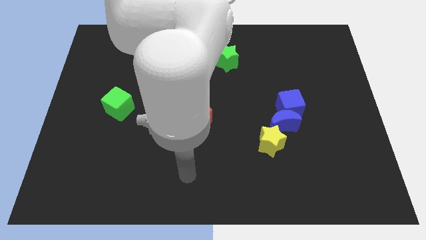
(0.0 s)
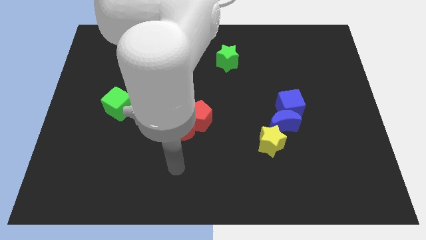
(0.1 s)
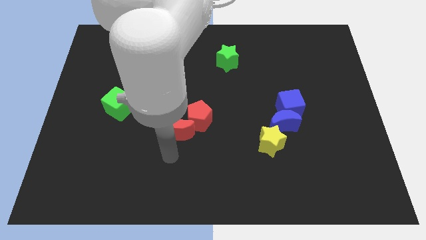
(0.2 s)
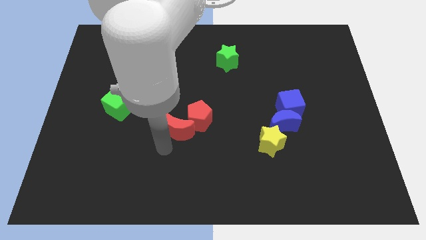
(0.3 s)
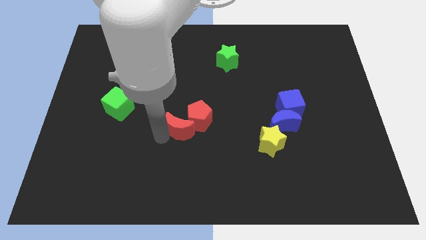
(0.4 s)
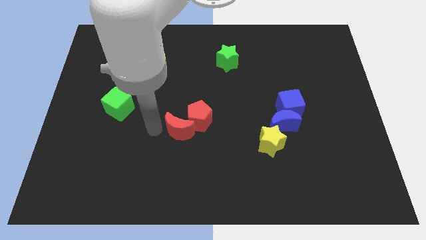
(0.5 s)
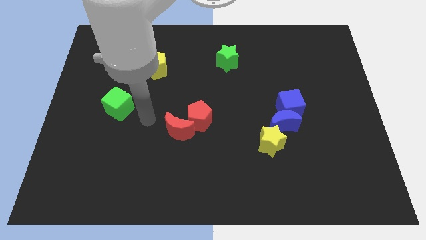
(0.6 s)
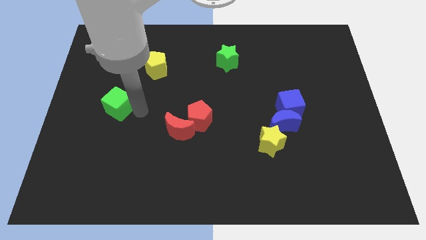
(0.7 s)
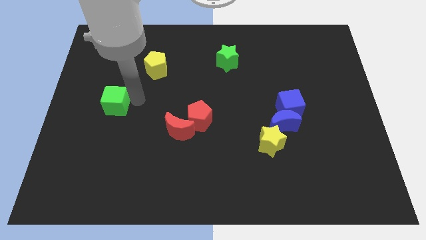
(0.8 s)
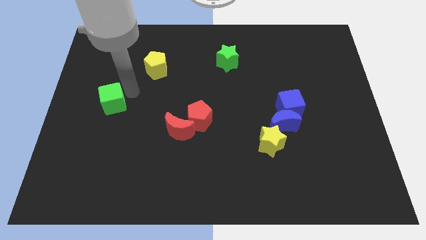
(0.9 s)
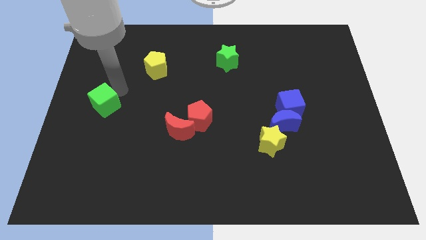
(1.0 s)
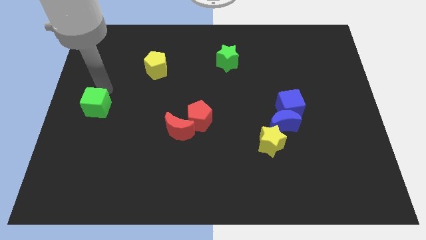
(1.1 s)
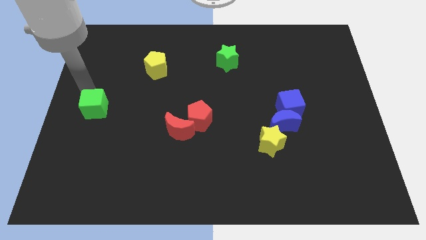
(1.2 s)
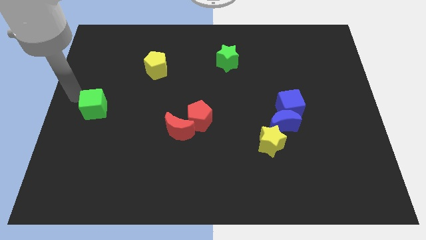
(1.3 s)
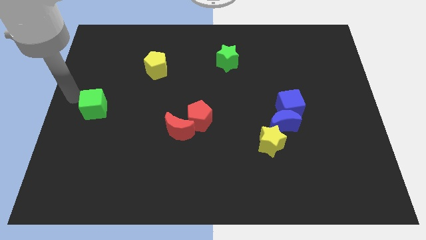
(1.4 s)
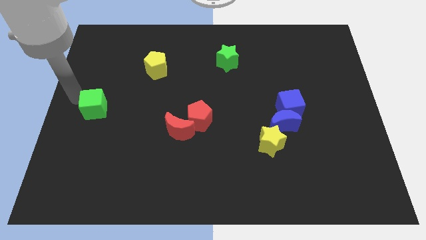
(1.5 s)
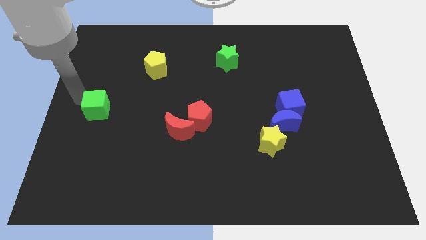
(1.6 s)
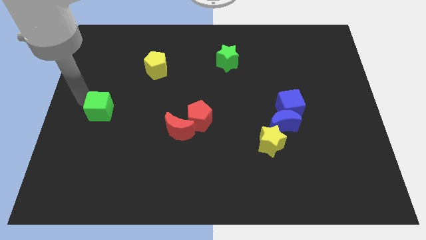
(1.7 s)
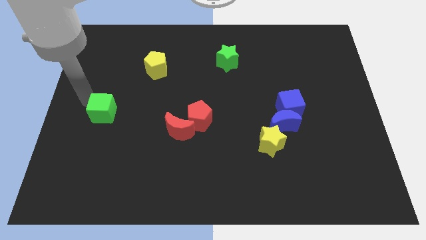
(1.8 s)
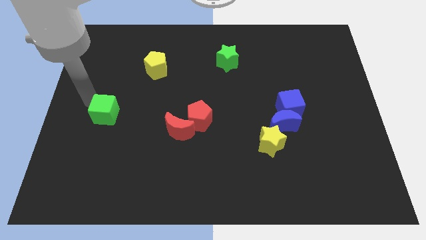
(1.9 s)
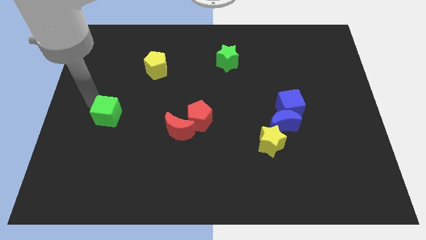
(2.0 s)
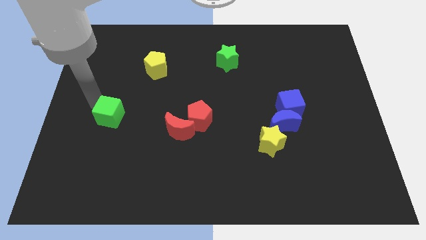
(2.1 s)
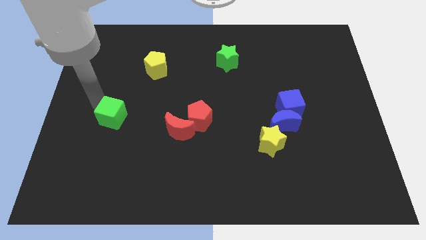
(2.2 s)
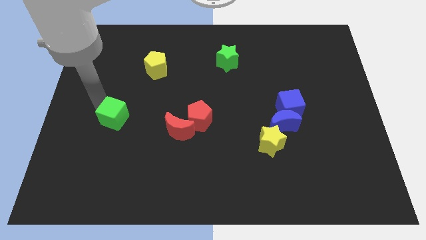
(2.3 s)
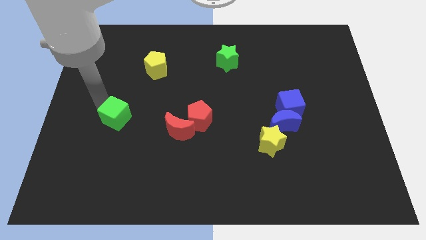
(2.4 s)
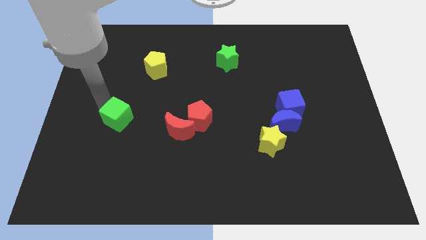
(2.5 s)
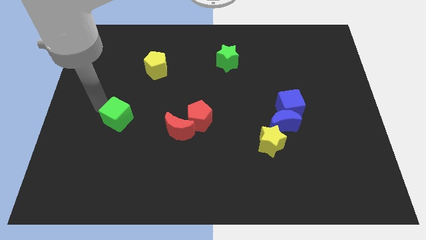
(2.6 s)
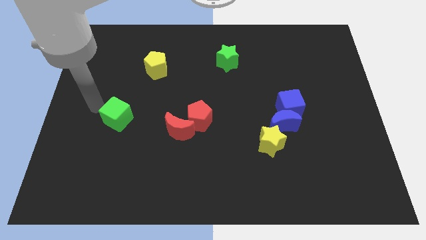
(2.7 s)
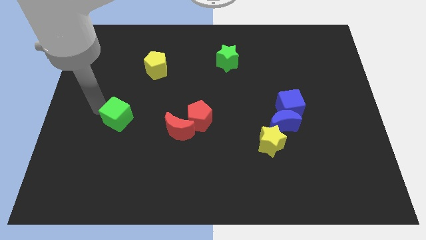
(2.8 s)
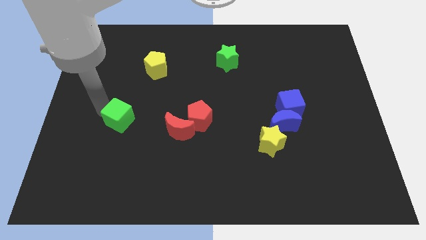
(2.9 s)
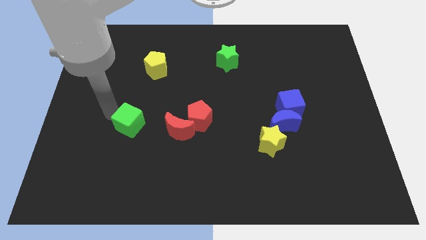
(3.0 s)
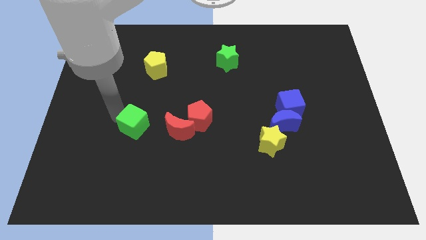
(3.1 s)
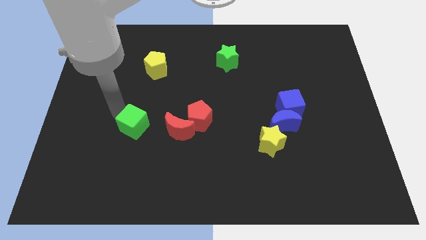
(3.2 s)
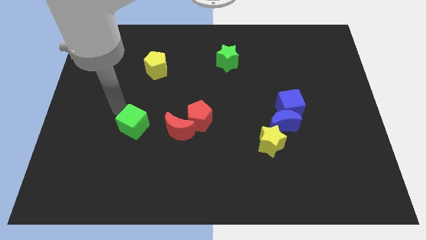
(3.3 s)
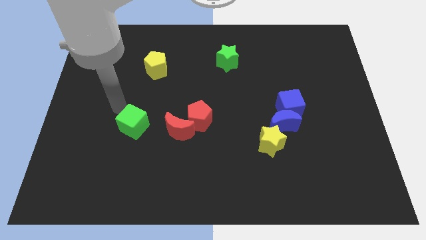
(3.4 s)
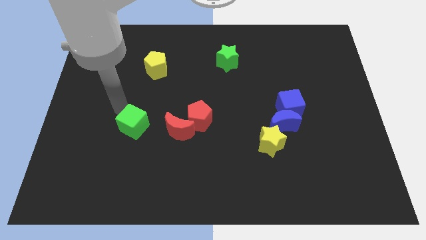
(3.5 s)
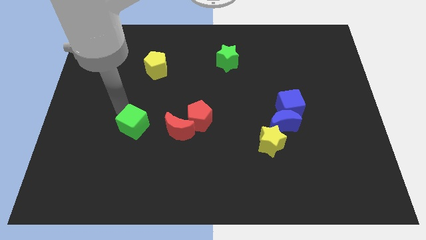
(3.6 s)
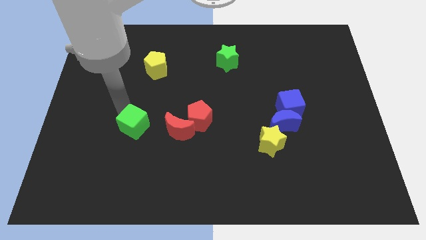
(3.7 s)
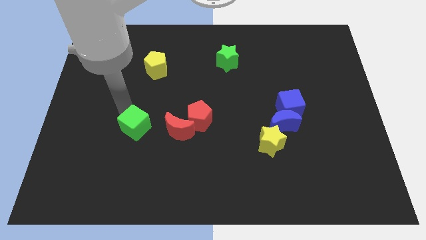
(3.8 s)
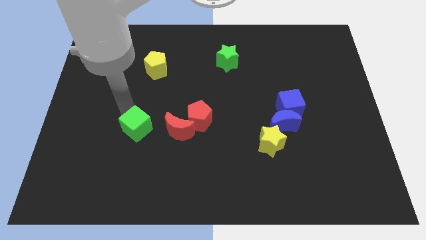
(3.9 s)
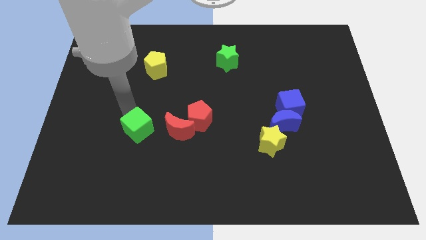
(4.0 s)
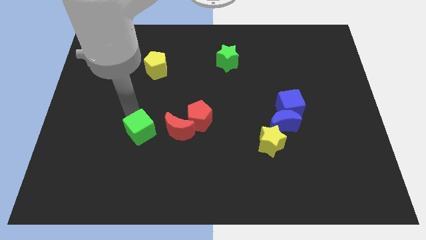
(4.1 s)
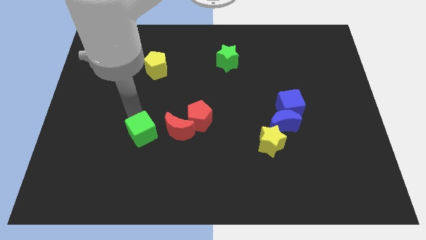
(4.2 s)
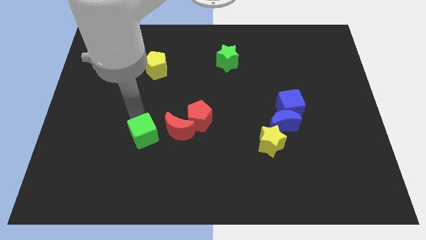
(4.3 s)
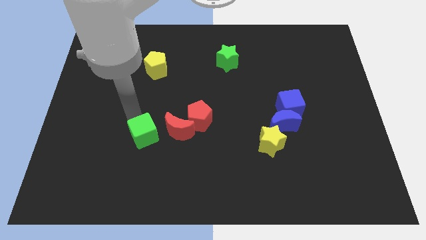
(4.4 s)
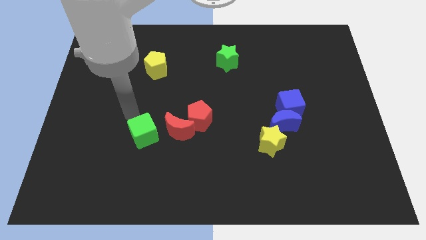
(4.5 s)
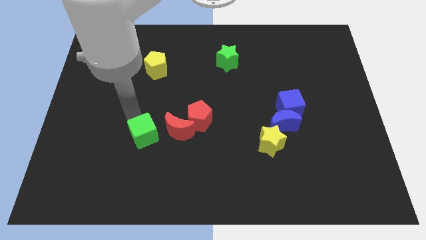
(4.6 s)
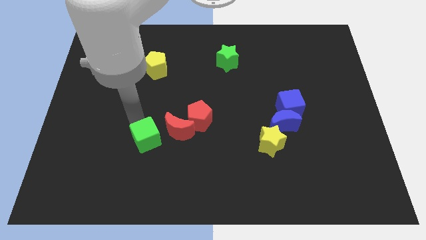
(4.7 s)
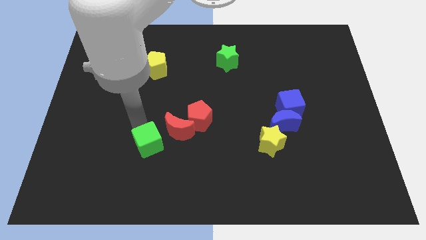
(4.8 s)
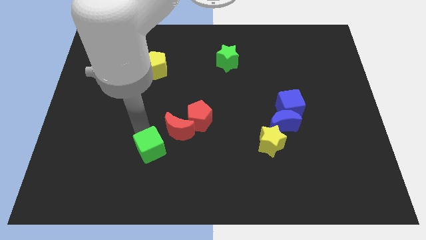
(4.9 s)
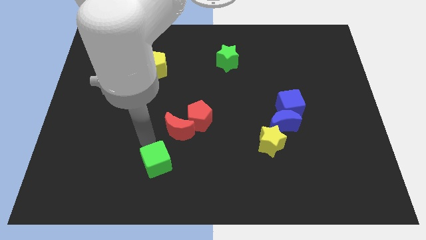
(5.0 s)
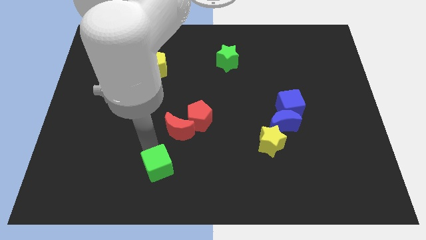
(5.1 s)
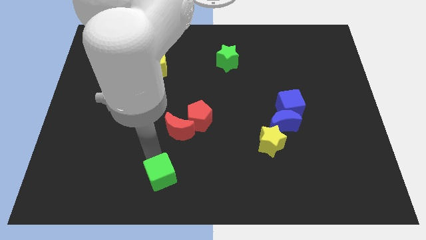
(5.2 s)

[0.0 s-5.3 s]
push the green cube to the bottom

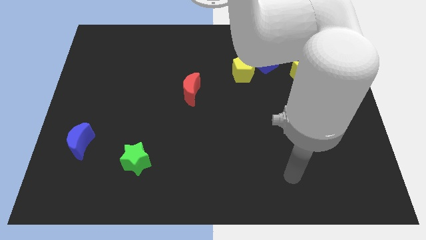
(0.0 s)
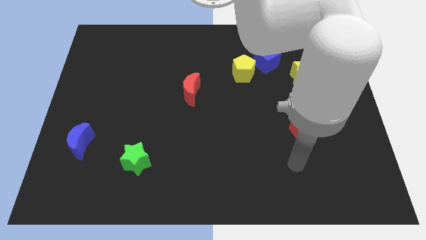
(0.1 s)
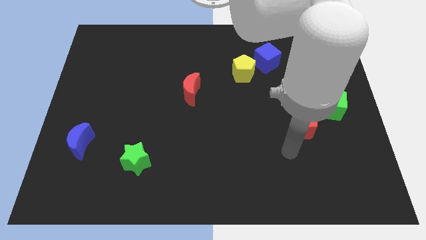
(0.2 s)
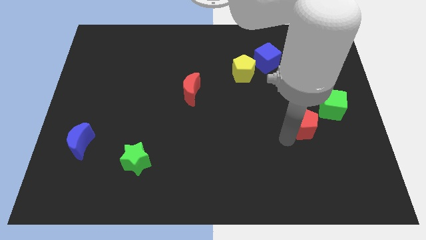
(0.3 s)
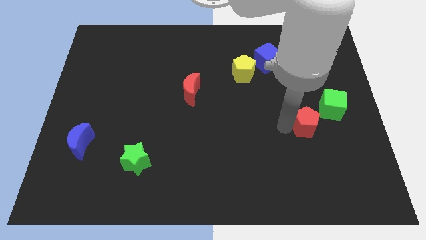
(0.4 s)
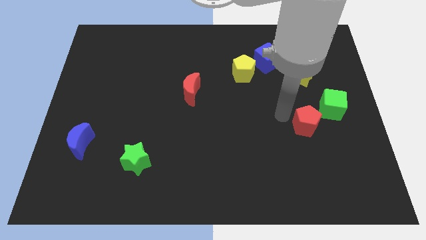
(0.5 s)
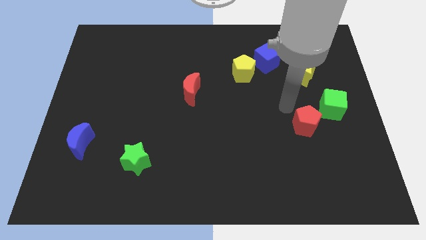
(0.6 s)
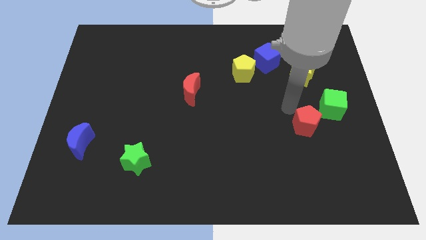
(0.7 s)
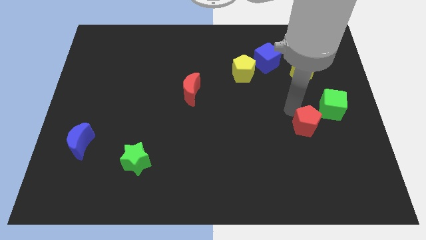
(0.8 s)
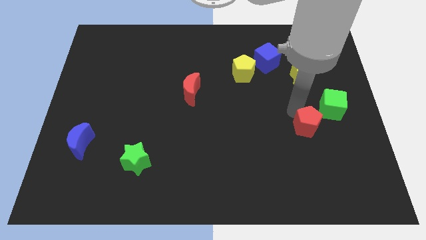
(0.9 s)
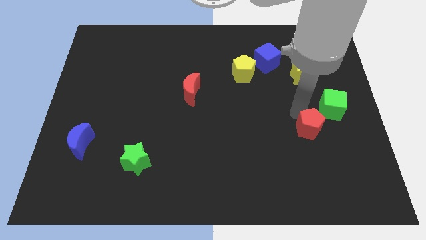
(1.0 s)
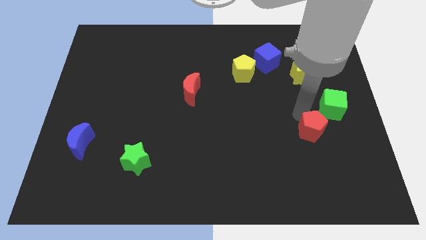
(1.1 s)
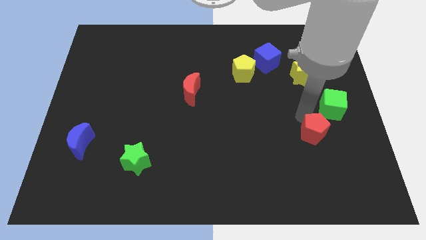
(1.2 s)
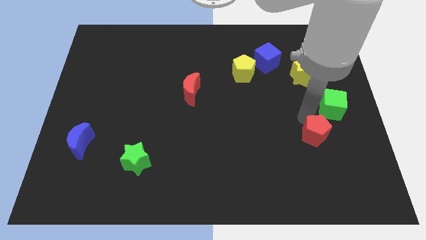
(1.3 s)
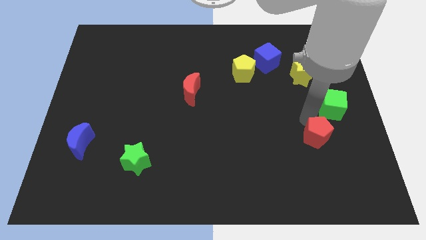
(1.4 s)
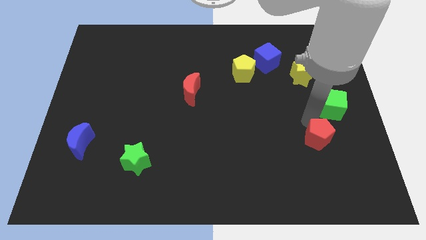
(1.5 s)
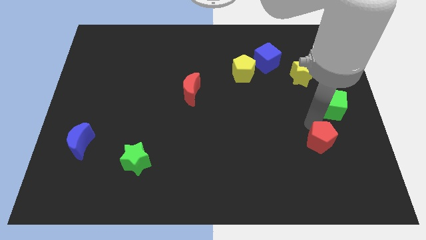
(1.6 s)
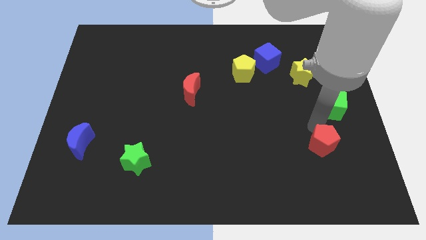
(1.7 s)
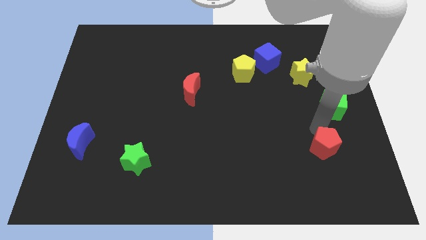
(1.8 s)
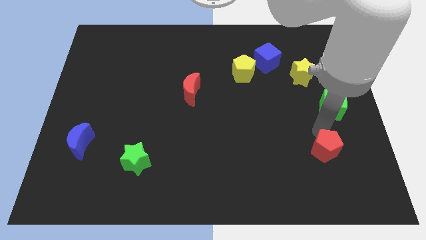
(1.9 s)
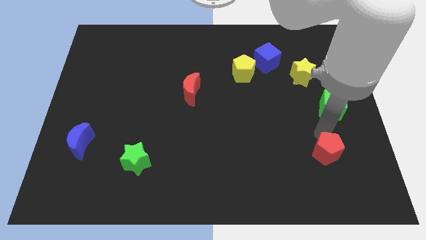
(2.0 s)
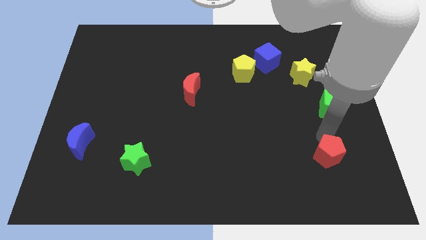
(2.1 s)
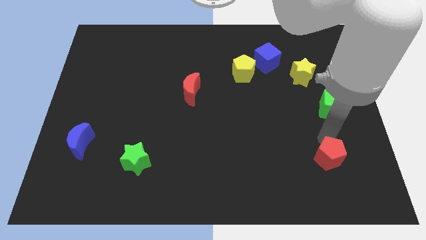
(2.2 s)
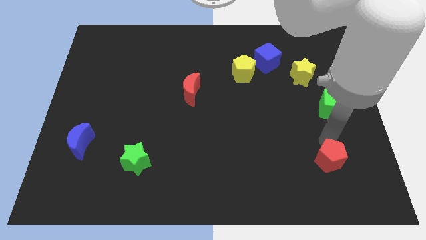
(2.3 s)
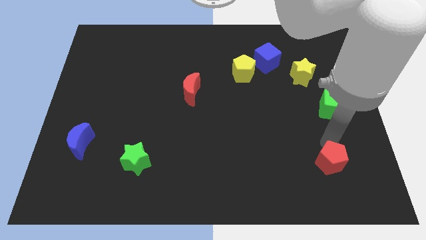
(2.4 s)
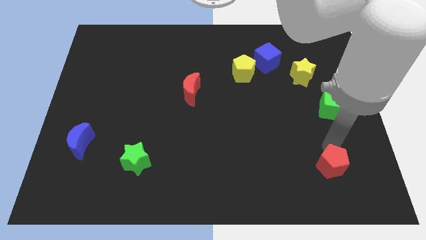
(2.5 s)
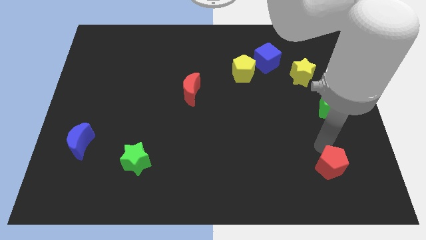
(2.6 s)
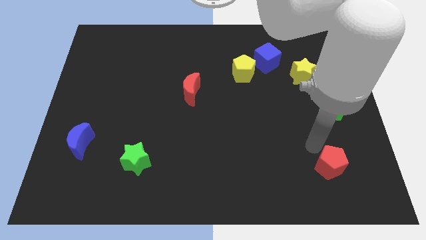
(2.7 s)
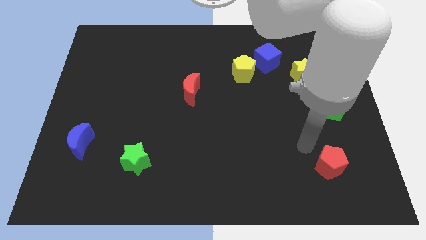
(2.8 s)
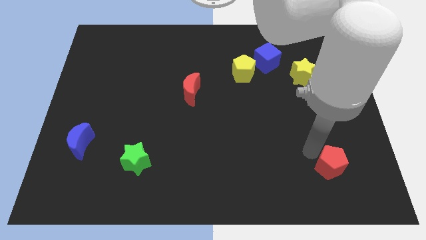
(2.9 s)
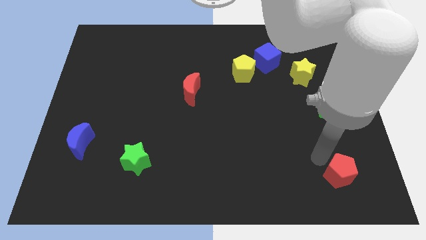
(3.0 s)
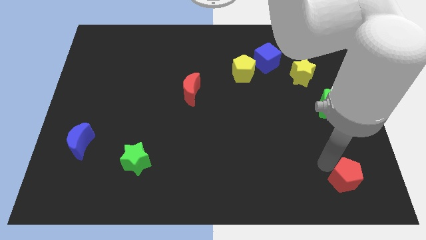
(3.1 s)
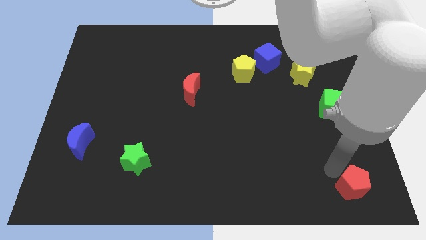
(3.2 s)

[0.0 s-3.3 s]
slide the red pentagon to the lower right corner
